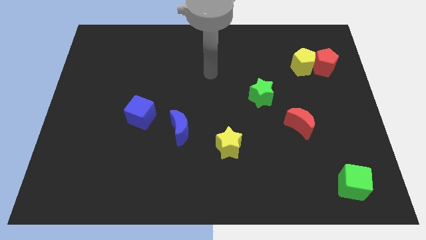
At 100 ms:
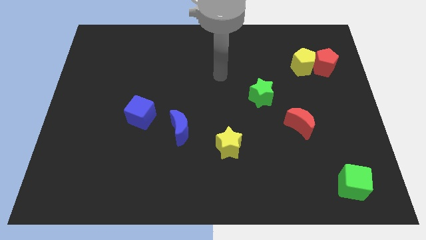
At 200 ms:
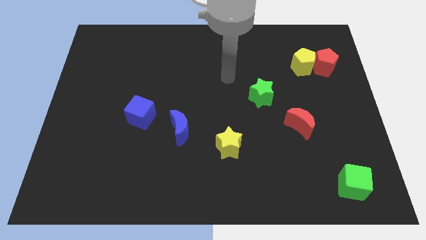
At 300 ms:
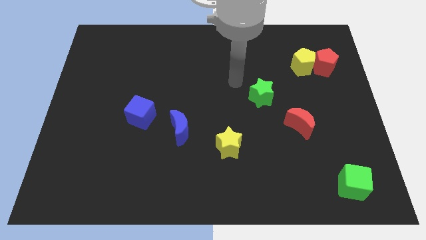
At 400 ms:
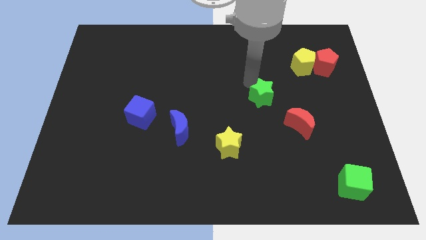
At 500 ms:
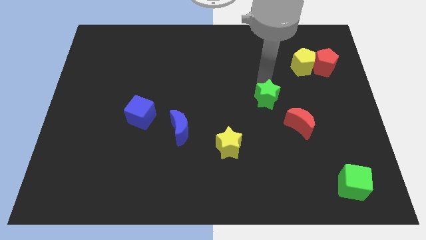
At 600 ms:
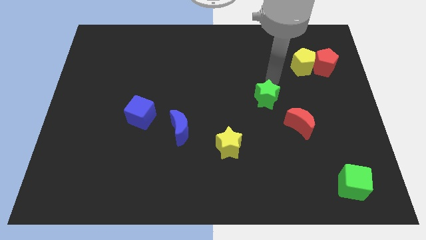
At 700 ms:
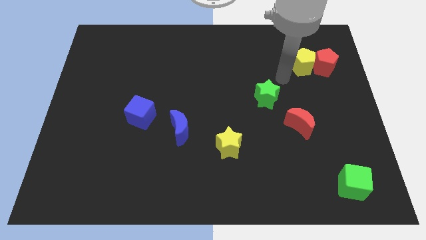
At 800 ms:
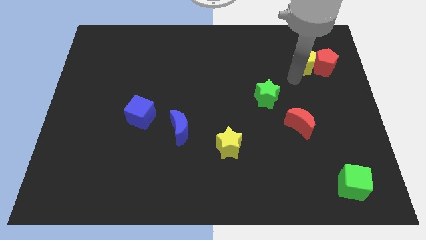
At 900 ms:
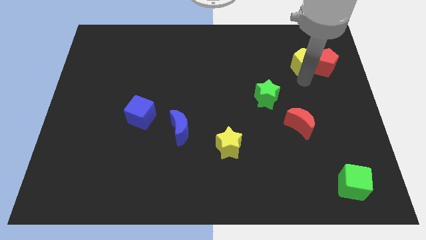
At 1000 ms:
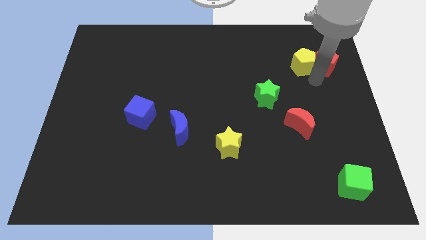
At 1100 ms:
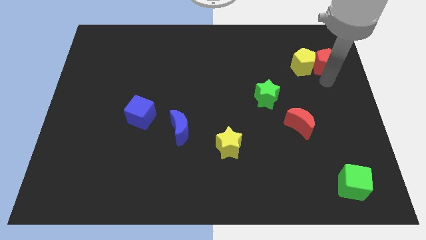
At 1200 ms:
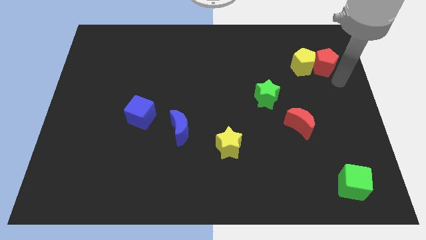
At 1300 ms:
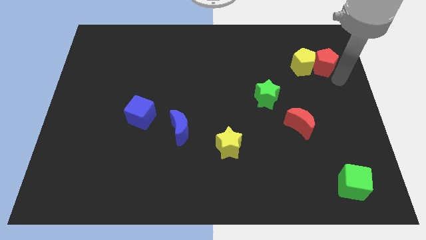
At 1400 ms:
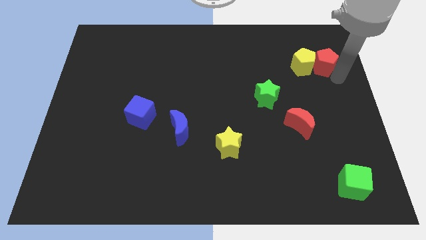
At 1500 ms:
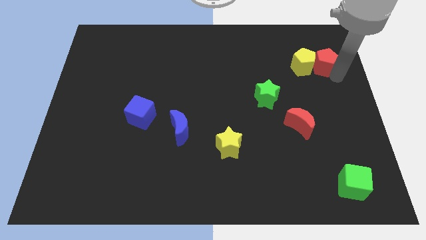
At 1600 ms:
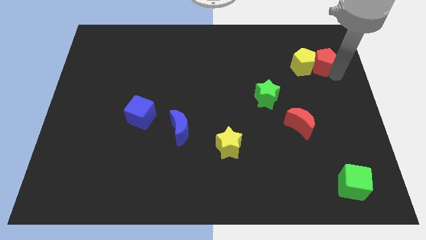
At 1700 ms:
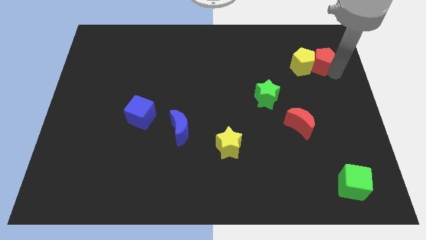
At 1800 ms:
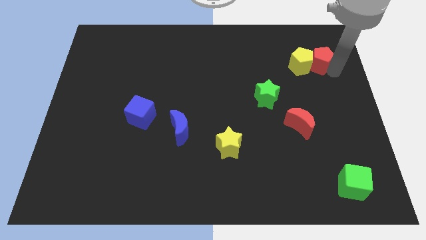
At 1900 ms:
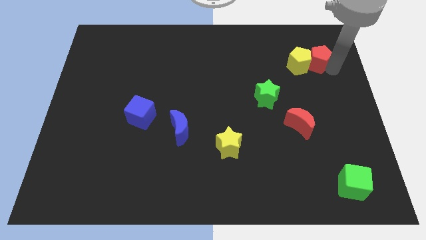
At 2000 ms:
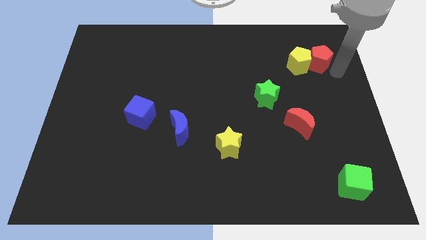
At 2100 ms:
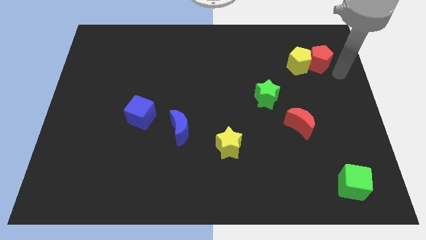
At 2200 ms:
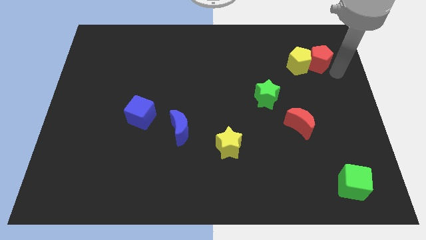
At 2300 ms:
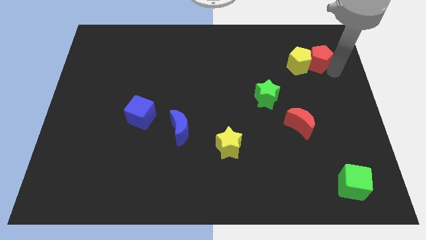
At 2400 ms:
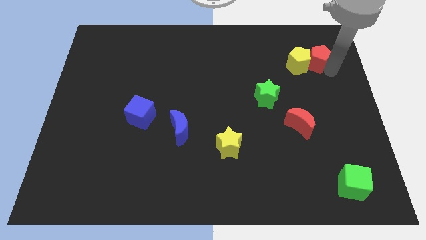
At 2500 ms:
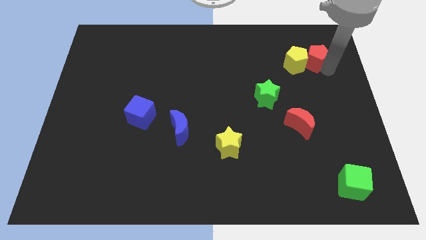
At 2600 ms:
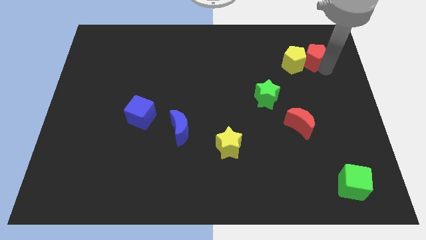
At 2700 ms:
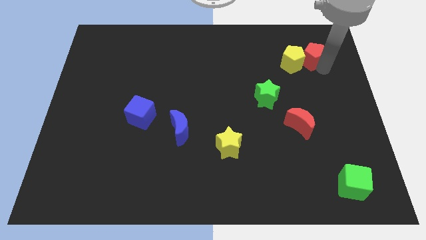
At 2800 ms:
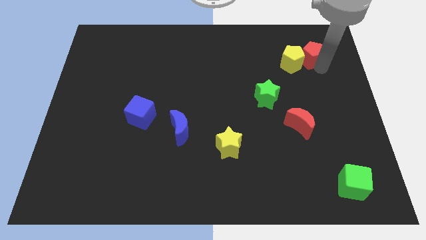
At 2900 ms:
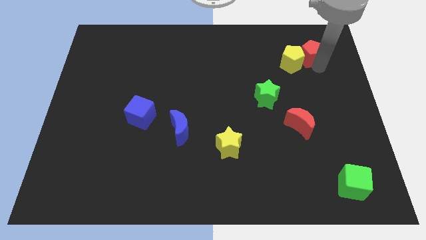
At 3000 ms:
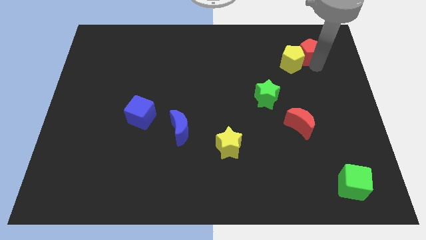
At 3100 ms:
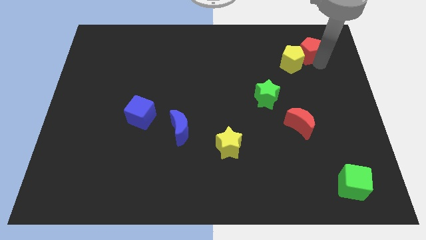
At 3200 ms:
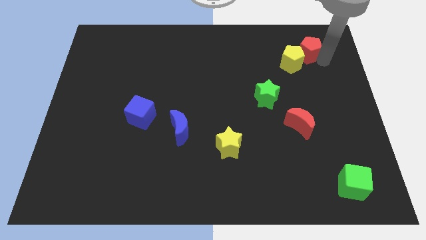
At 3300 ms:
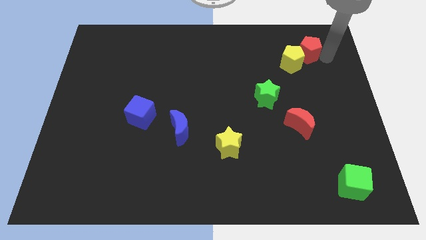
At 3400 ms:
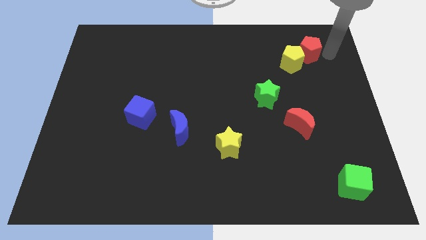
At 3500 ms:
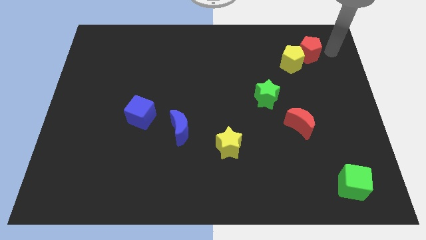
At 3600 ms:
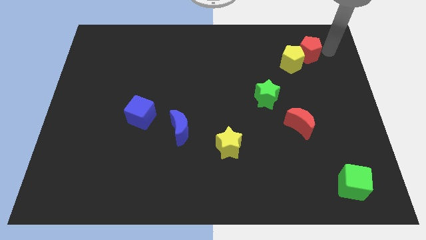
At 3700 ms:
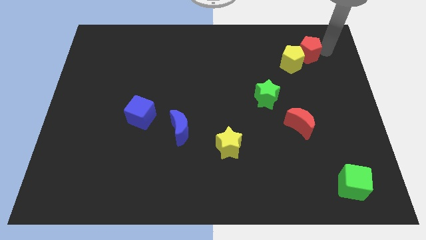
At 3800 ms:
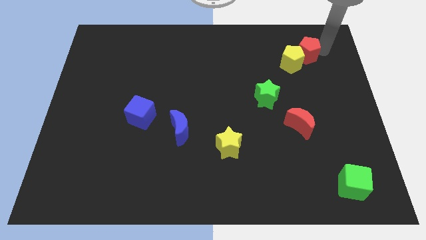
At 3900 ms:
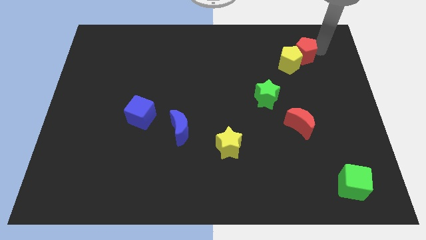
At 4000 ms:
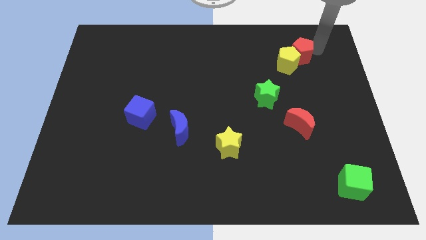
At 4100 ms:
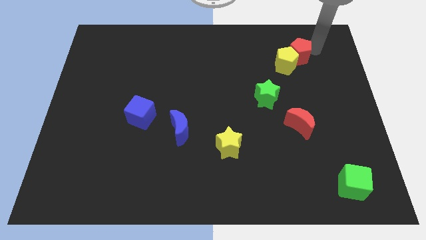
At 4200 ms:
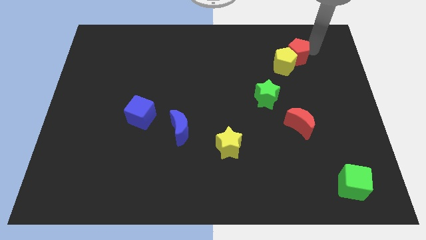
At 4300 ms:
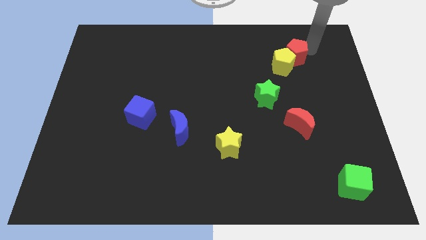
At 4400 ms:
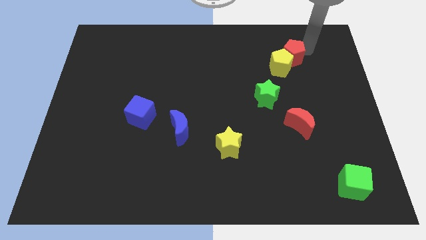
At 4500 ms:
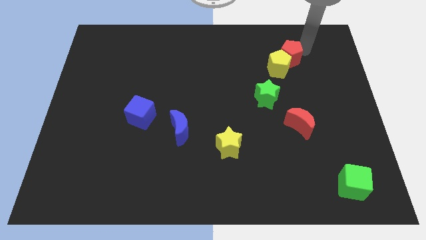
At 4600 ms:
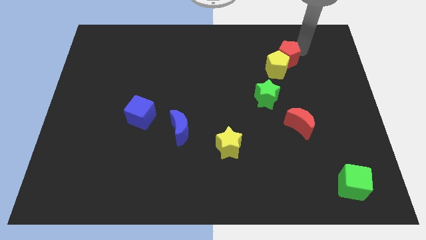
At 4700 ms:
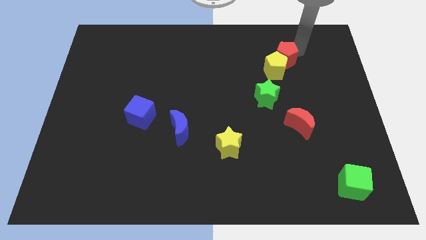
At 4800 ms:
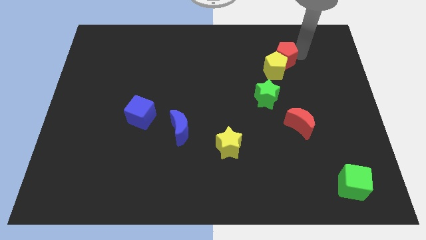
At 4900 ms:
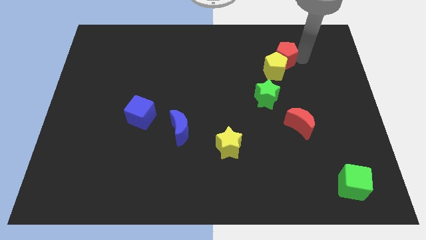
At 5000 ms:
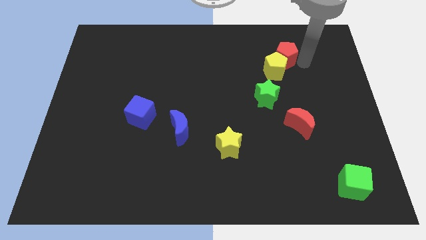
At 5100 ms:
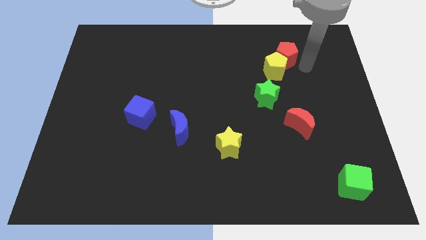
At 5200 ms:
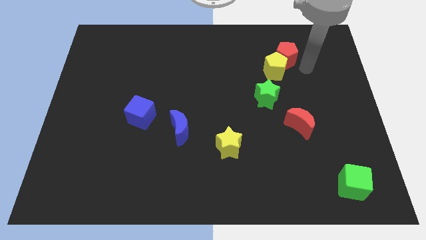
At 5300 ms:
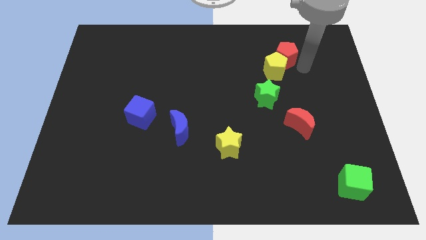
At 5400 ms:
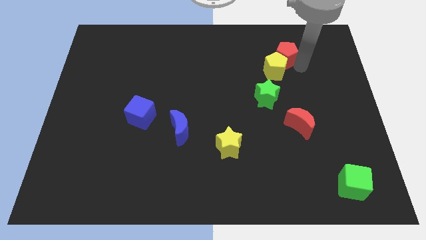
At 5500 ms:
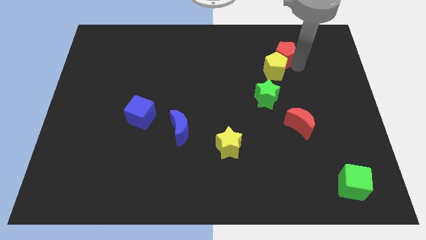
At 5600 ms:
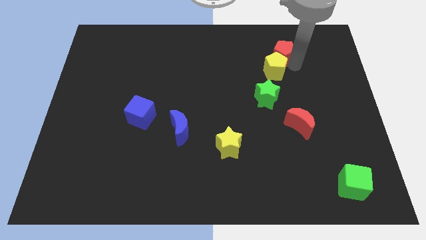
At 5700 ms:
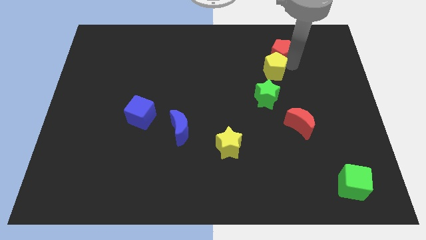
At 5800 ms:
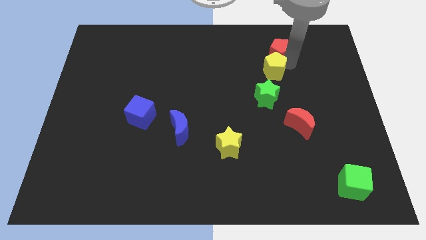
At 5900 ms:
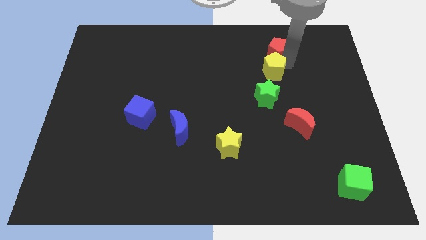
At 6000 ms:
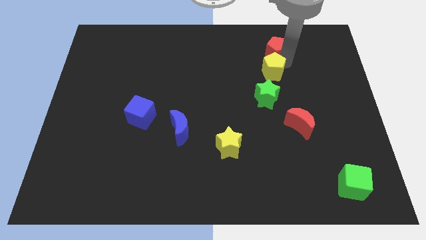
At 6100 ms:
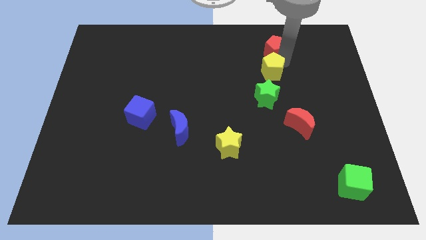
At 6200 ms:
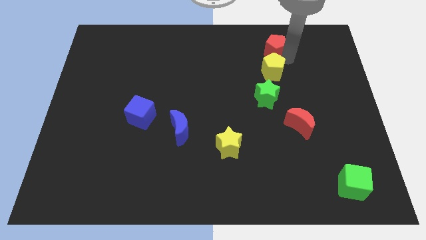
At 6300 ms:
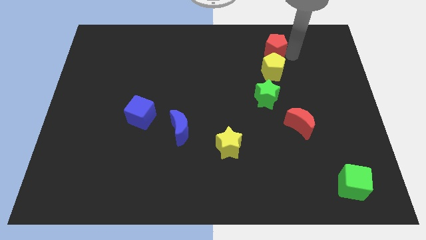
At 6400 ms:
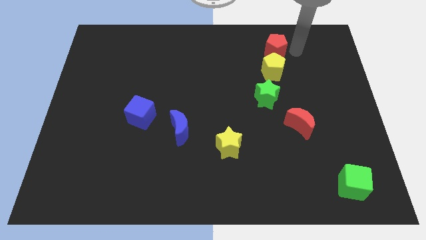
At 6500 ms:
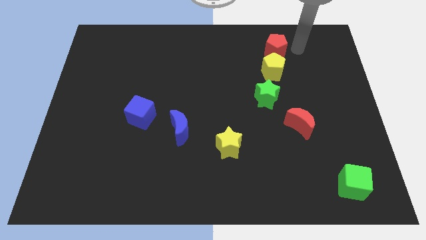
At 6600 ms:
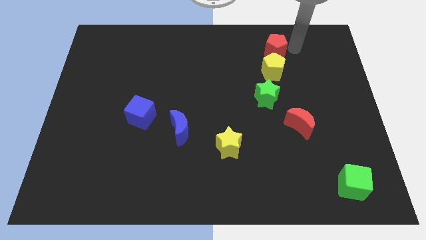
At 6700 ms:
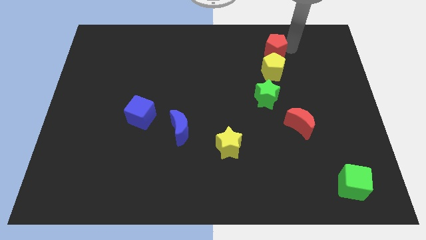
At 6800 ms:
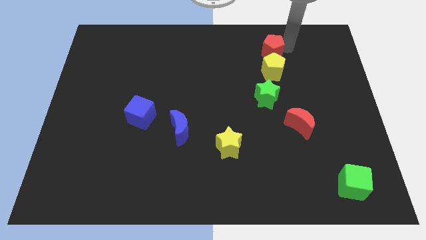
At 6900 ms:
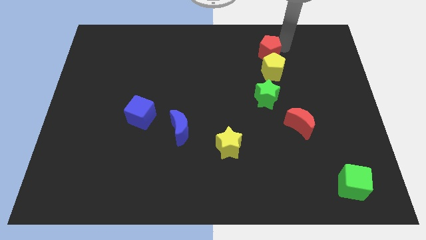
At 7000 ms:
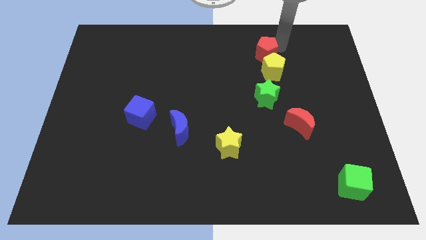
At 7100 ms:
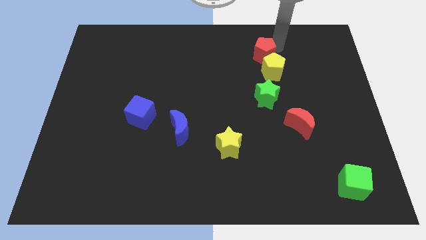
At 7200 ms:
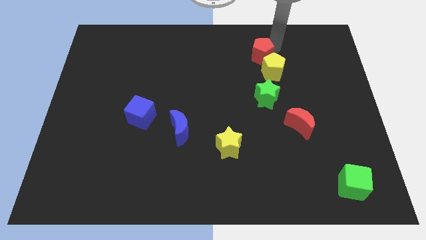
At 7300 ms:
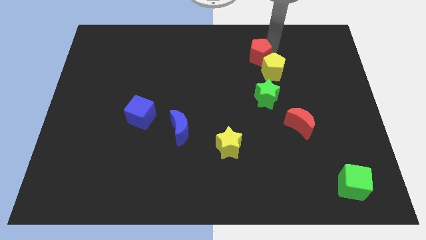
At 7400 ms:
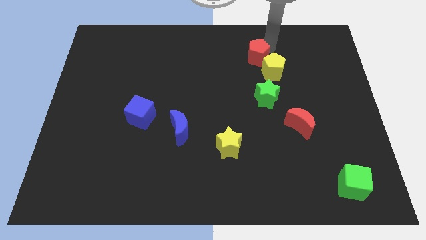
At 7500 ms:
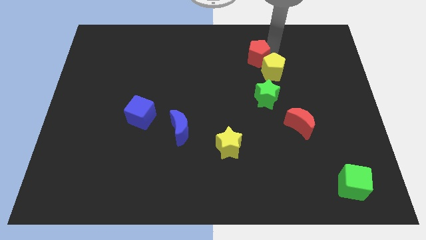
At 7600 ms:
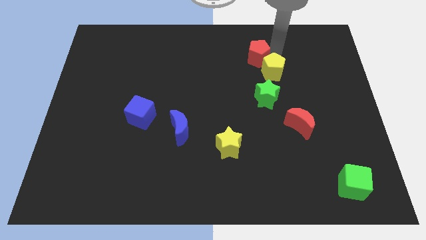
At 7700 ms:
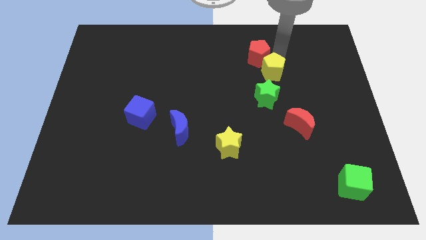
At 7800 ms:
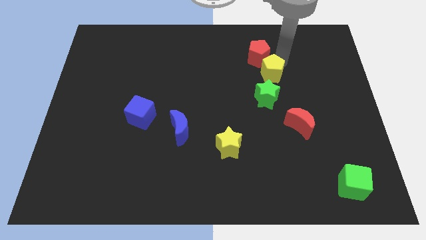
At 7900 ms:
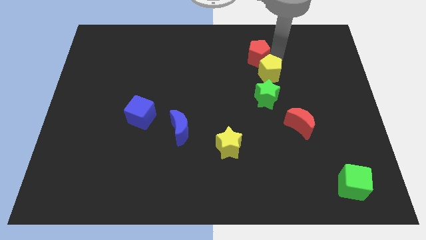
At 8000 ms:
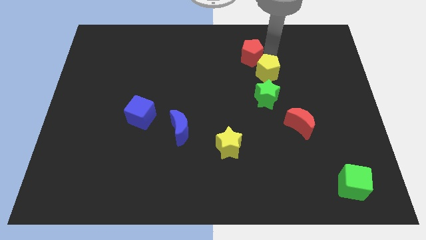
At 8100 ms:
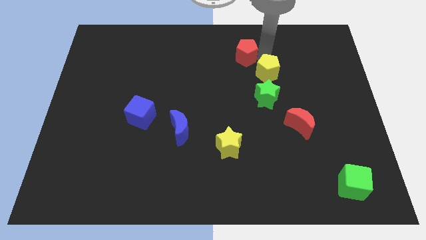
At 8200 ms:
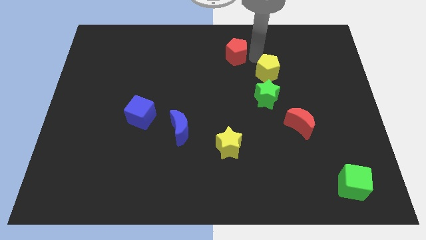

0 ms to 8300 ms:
move the red pentagon to the towards your base
